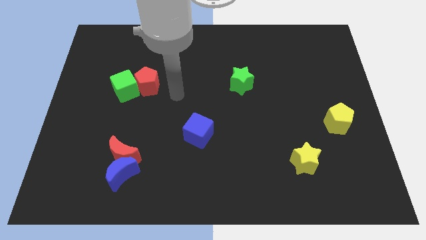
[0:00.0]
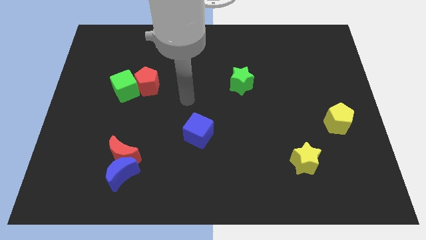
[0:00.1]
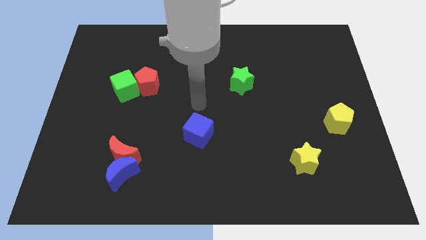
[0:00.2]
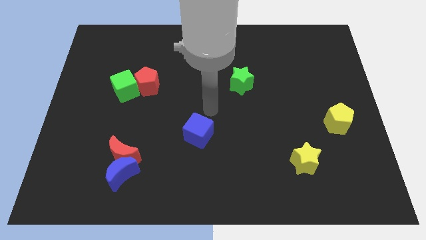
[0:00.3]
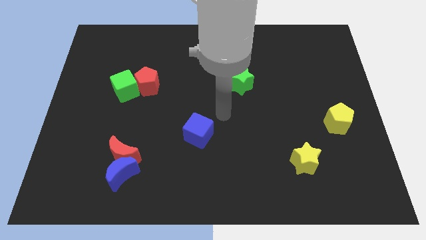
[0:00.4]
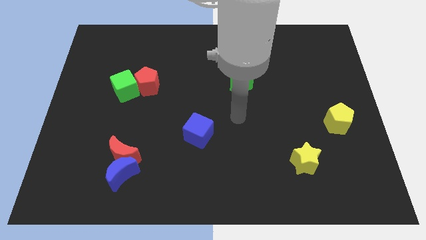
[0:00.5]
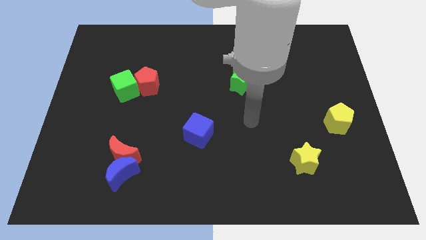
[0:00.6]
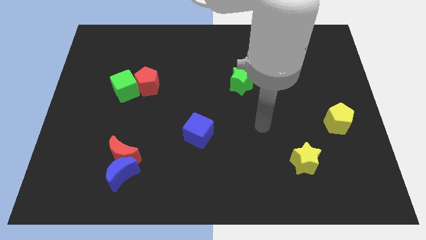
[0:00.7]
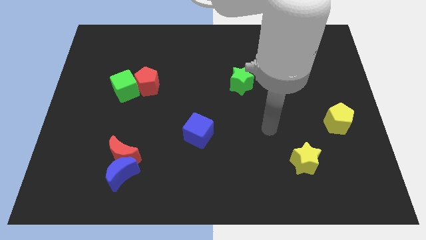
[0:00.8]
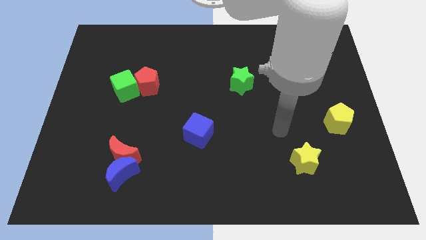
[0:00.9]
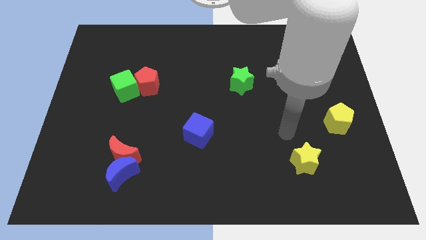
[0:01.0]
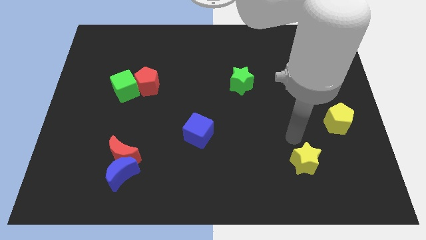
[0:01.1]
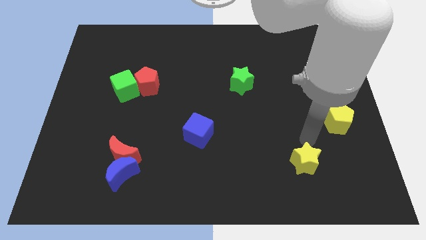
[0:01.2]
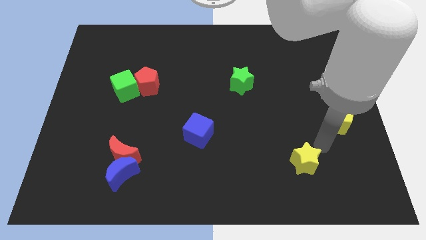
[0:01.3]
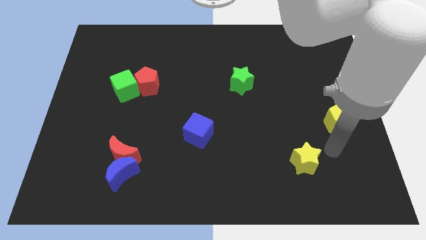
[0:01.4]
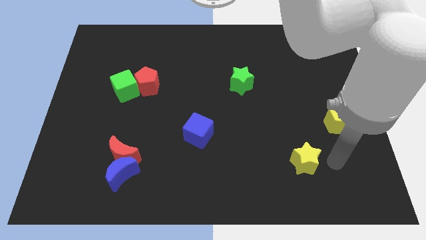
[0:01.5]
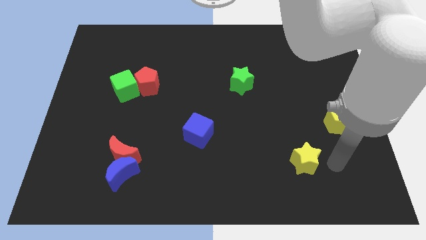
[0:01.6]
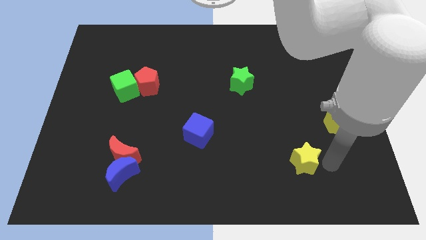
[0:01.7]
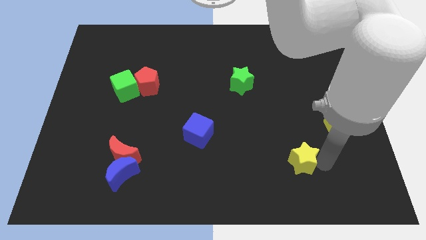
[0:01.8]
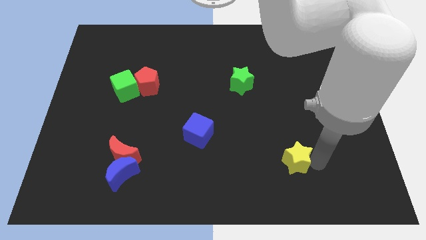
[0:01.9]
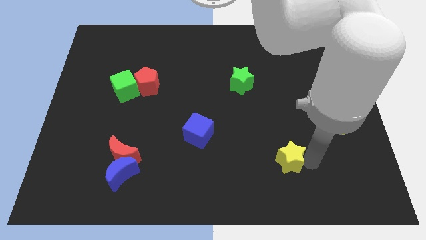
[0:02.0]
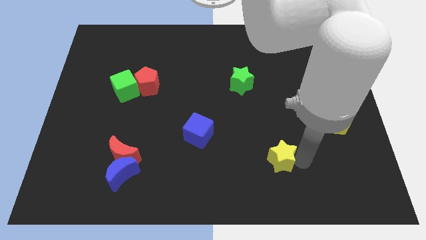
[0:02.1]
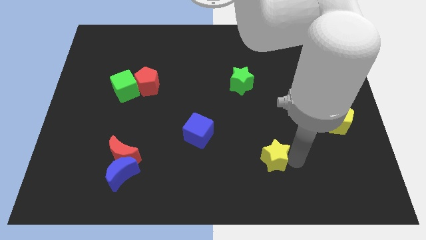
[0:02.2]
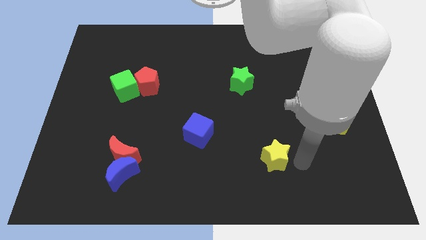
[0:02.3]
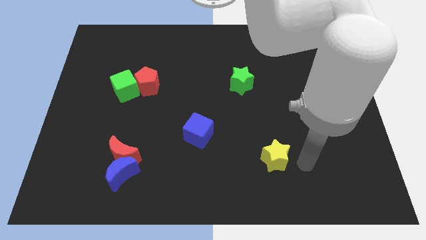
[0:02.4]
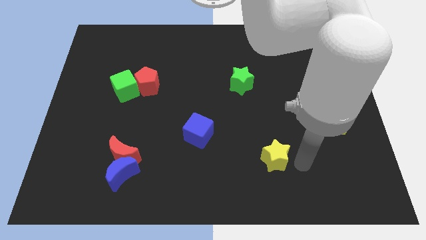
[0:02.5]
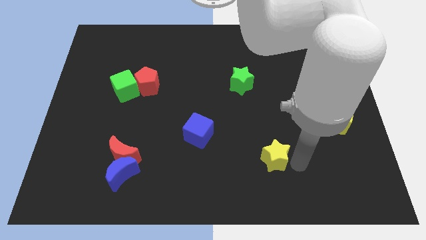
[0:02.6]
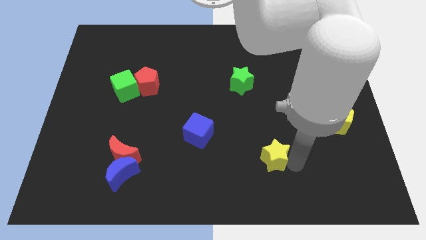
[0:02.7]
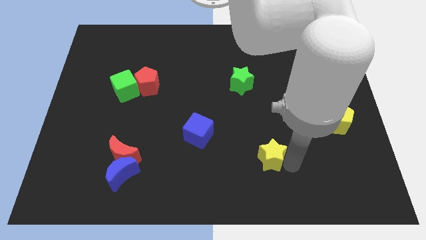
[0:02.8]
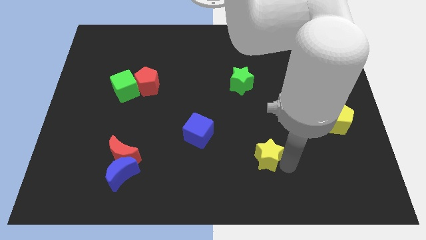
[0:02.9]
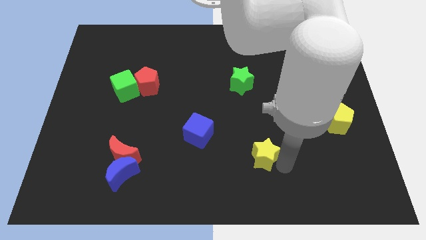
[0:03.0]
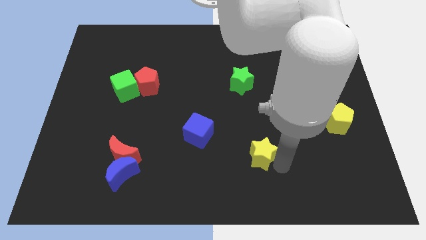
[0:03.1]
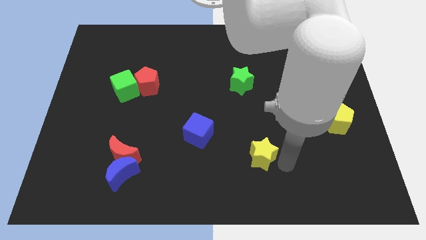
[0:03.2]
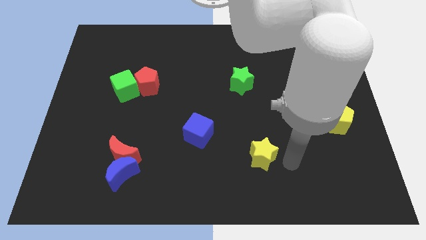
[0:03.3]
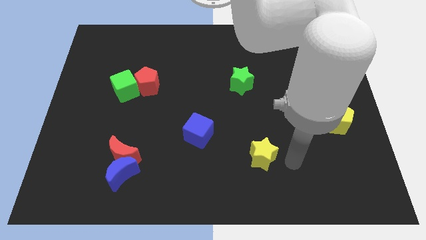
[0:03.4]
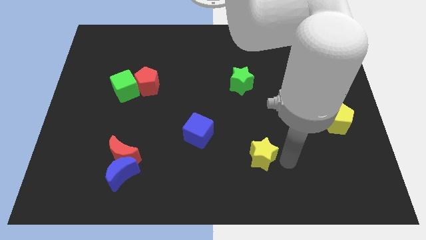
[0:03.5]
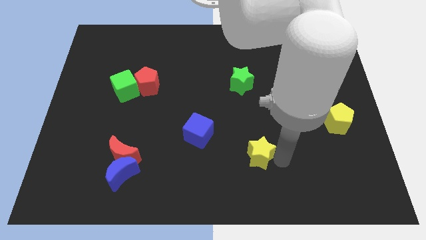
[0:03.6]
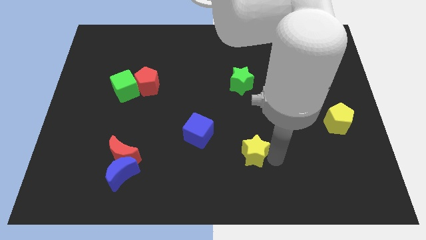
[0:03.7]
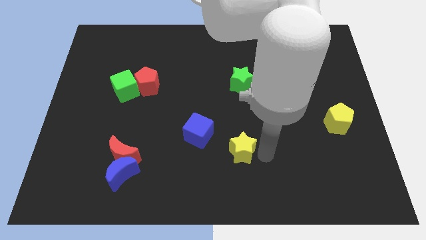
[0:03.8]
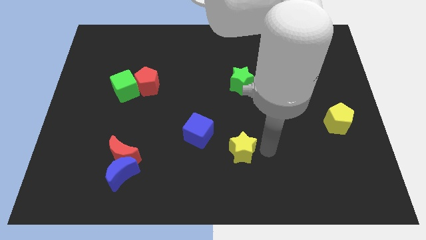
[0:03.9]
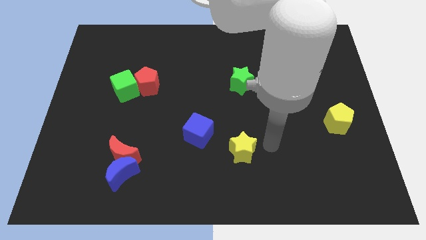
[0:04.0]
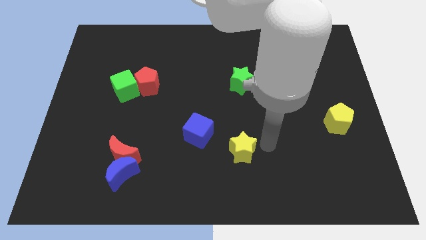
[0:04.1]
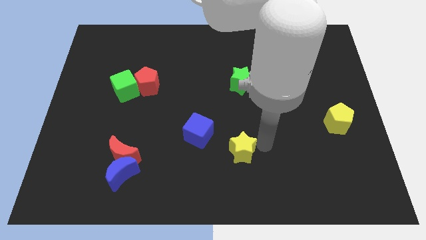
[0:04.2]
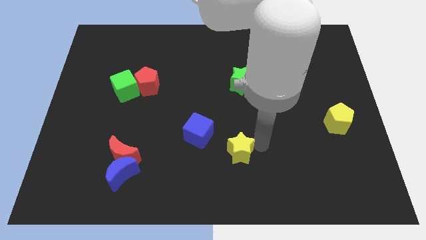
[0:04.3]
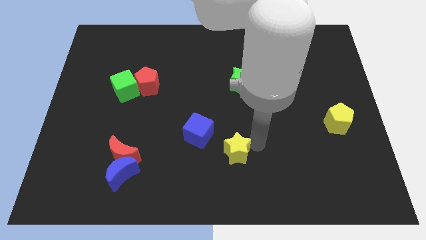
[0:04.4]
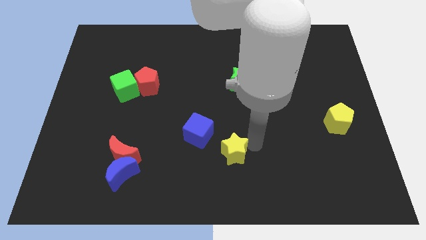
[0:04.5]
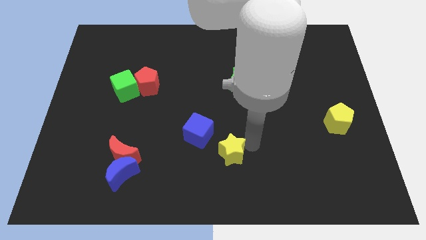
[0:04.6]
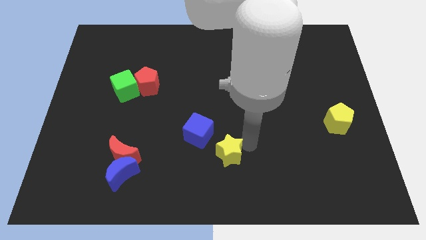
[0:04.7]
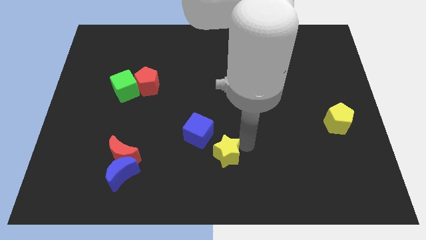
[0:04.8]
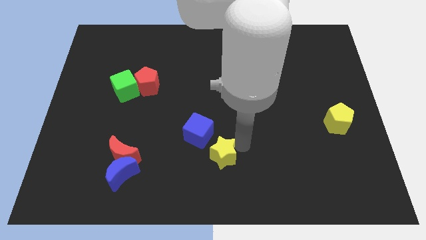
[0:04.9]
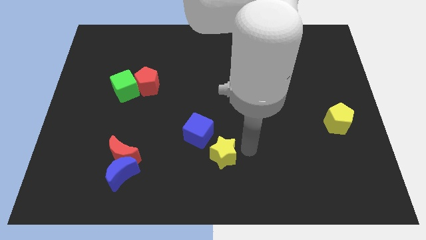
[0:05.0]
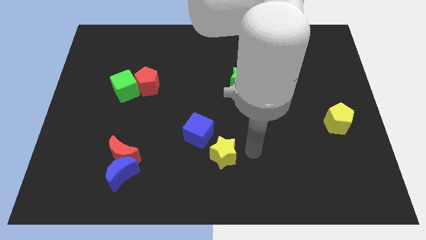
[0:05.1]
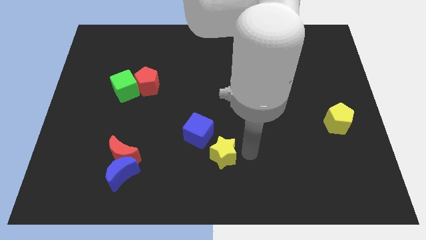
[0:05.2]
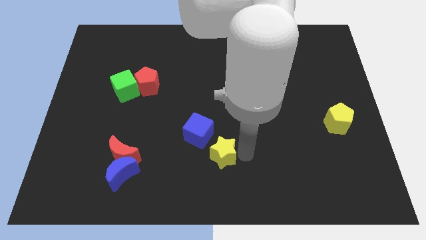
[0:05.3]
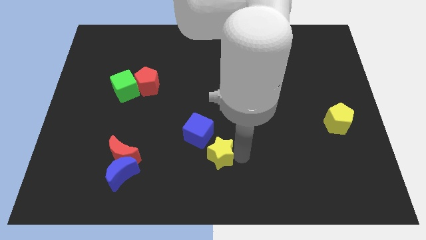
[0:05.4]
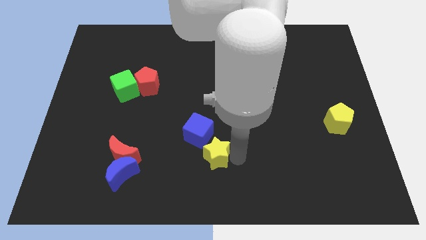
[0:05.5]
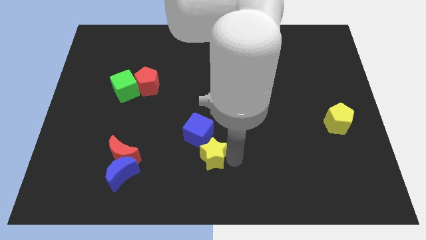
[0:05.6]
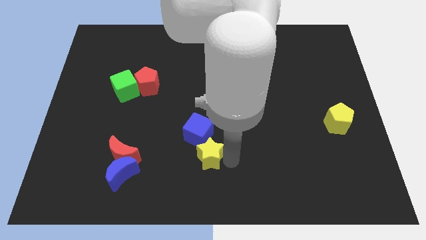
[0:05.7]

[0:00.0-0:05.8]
move the yellow star to the left

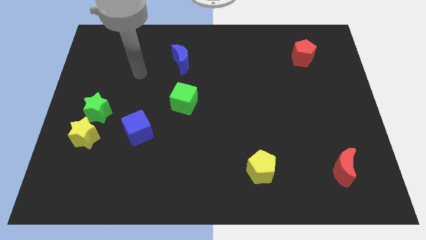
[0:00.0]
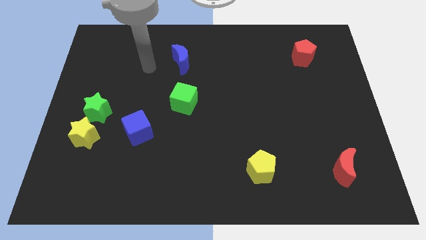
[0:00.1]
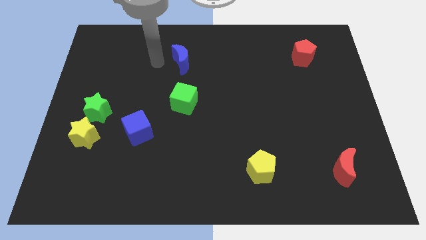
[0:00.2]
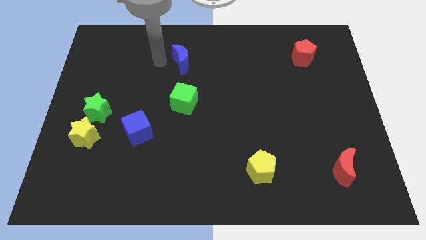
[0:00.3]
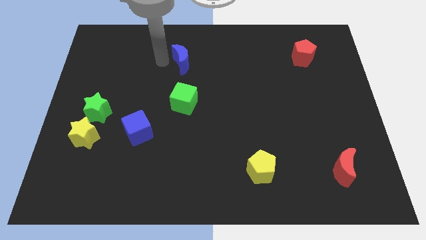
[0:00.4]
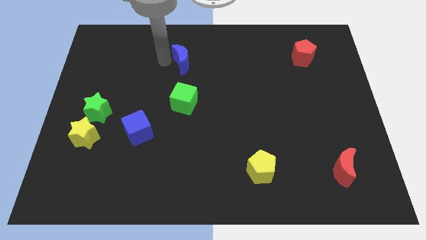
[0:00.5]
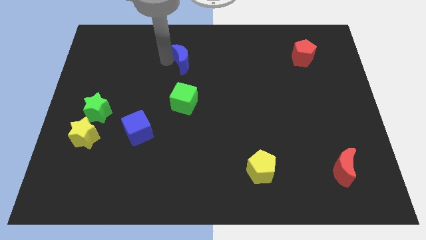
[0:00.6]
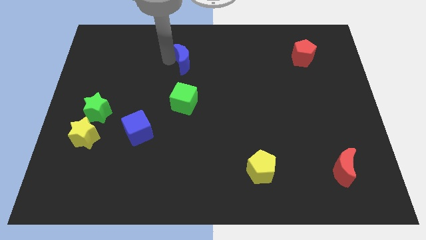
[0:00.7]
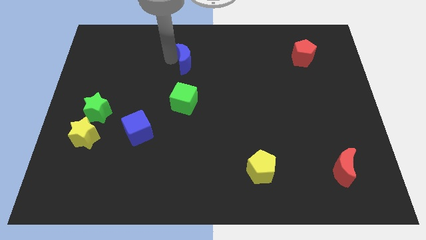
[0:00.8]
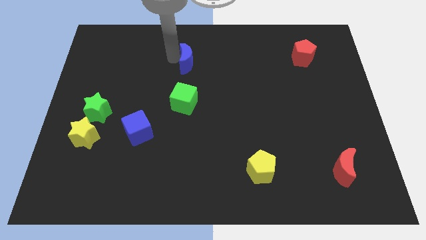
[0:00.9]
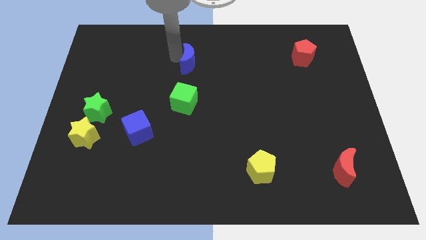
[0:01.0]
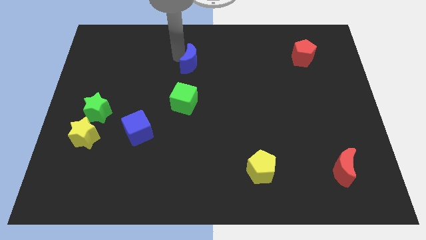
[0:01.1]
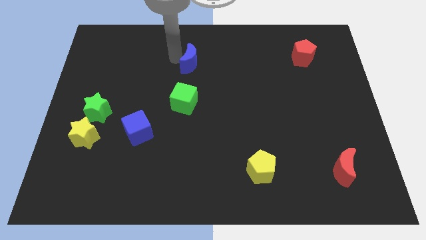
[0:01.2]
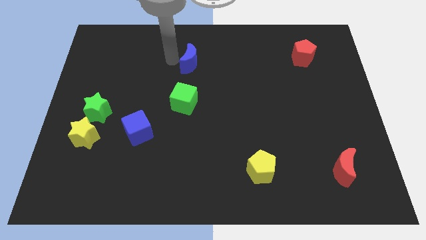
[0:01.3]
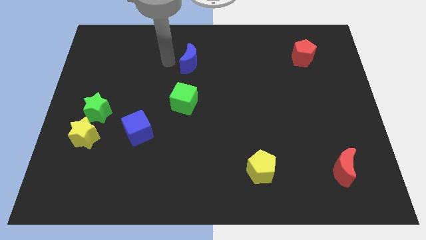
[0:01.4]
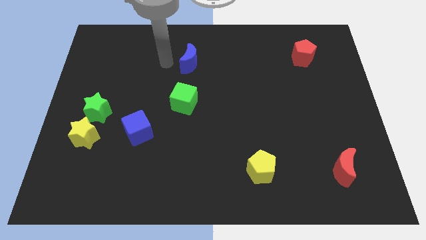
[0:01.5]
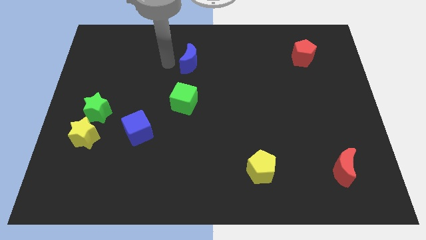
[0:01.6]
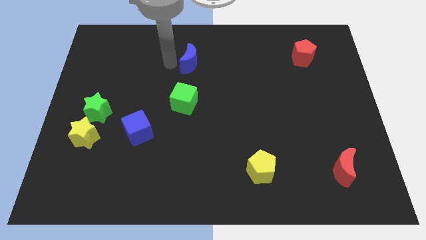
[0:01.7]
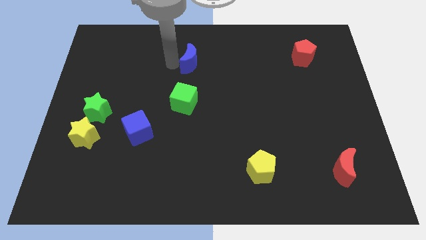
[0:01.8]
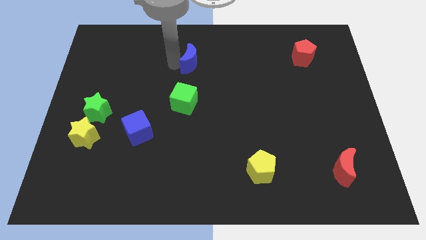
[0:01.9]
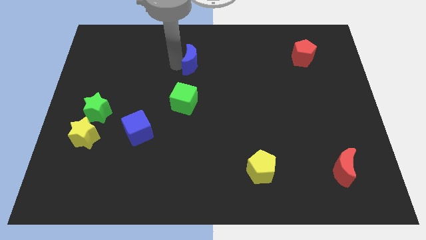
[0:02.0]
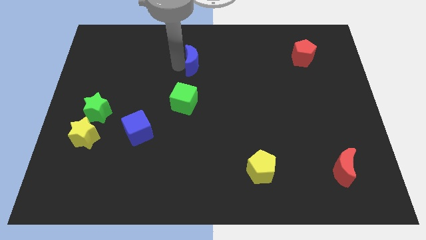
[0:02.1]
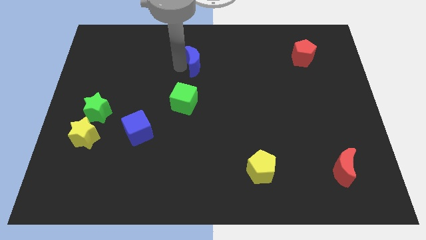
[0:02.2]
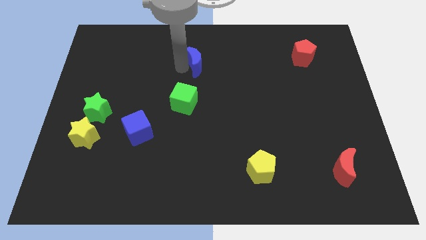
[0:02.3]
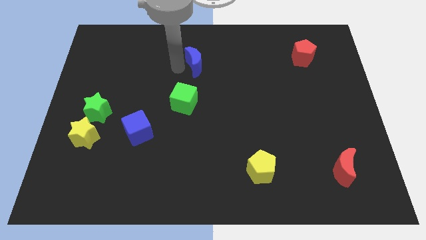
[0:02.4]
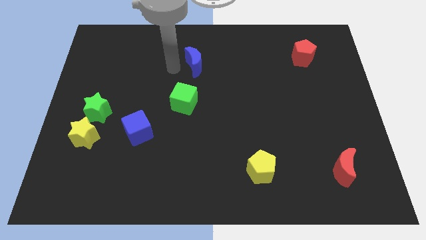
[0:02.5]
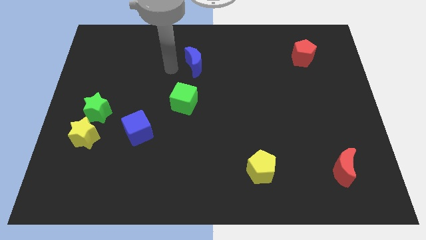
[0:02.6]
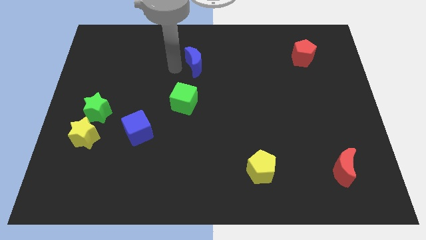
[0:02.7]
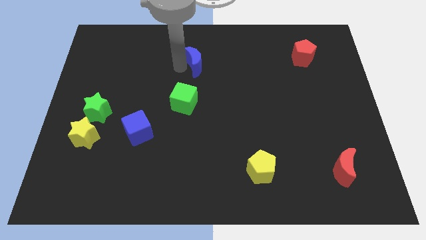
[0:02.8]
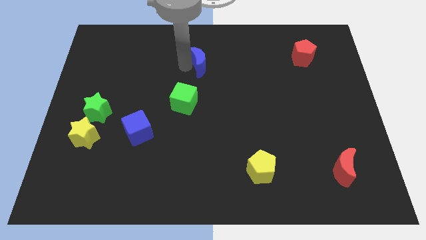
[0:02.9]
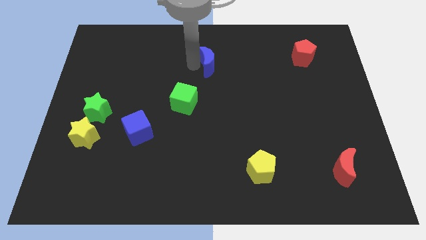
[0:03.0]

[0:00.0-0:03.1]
slightly slide the blue moon to the right
